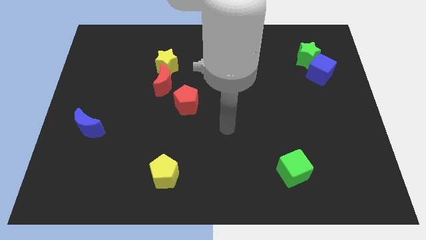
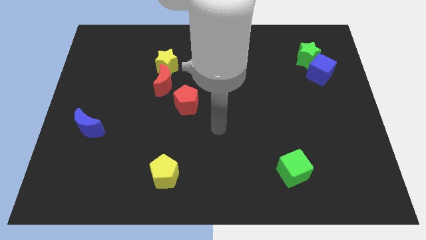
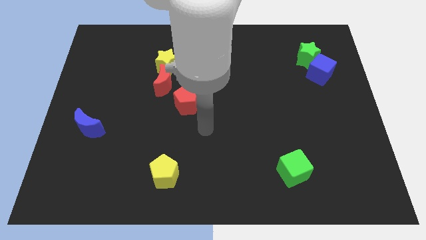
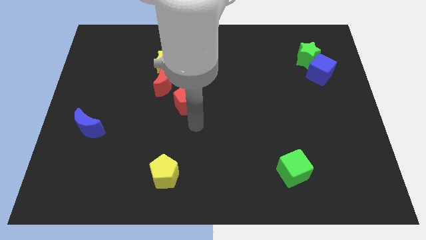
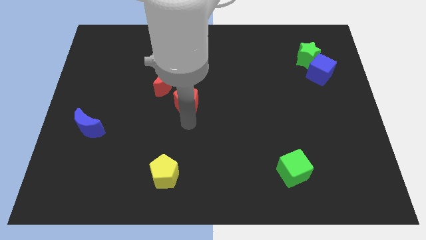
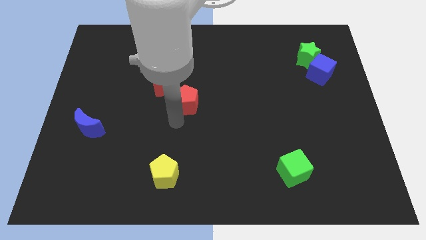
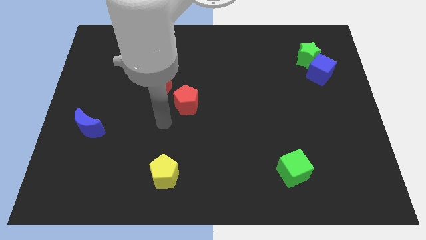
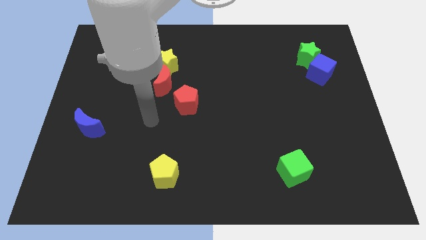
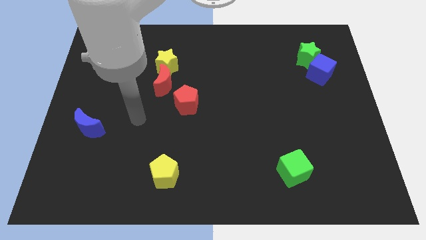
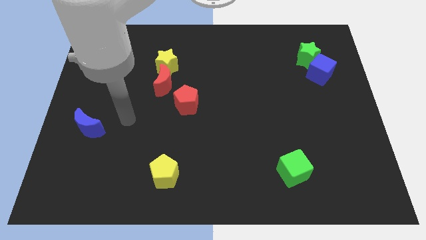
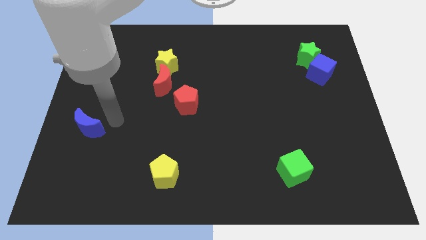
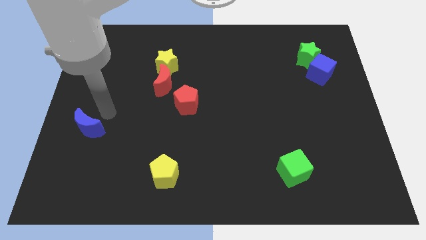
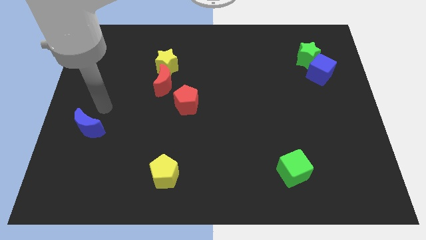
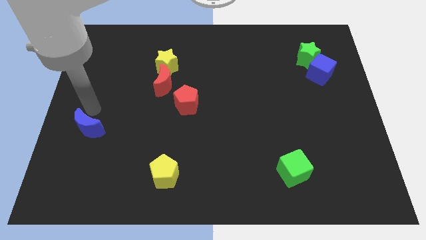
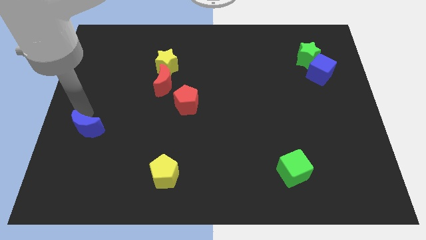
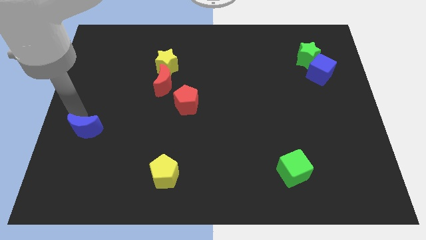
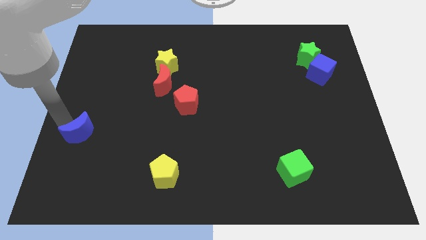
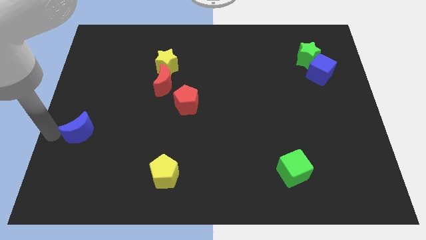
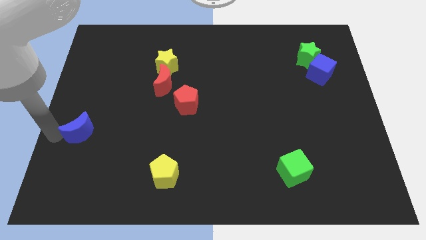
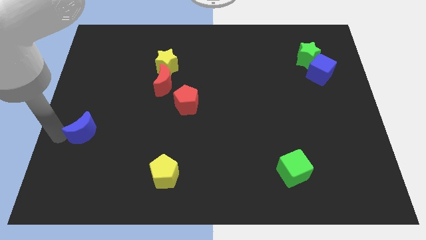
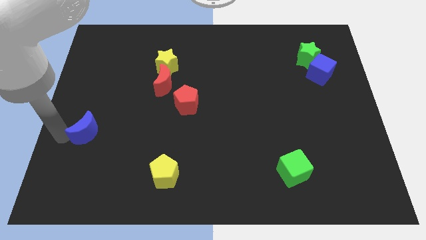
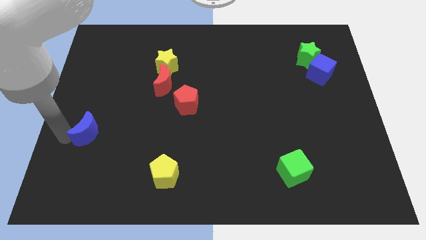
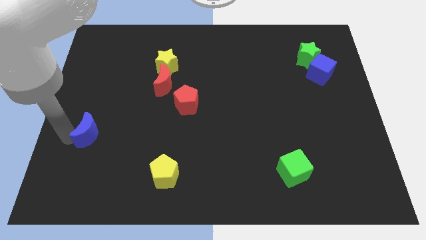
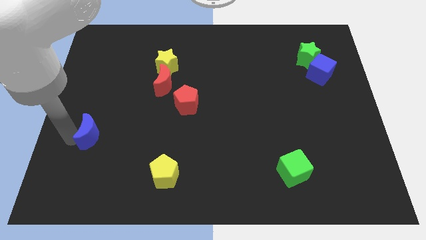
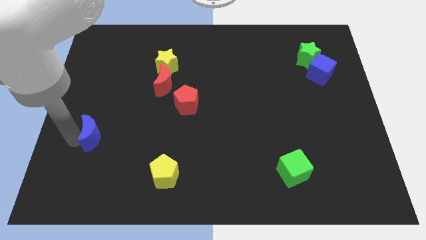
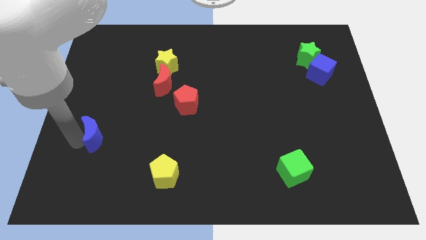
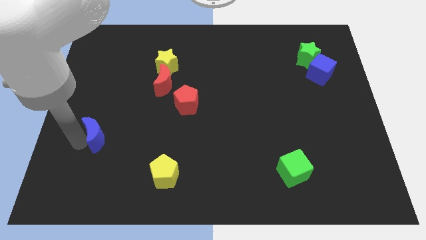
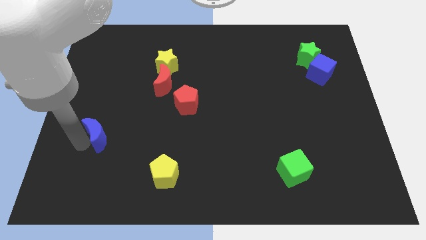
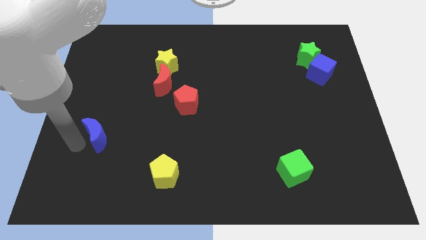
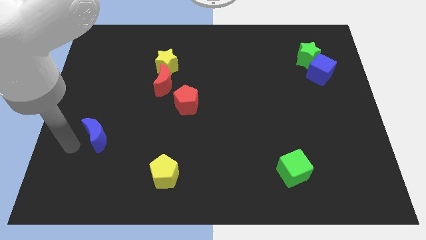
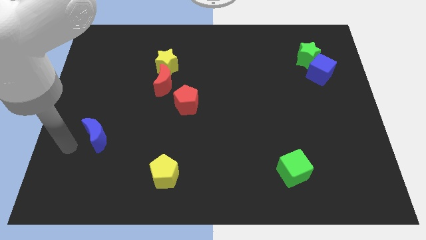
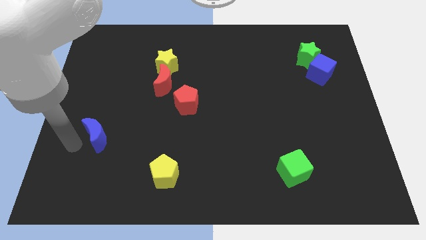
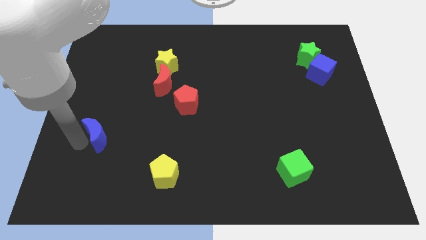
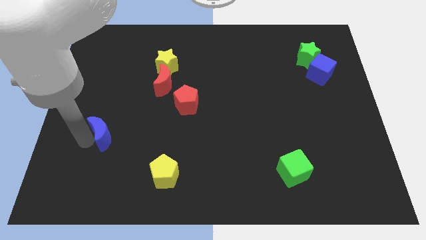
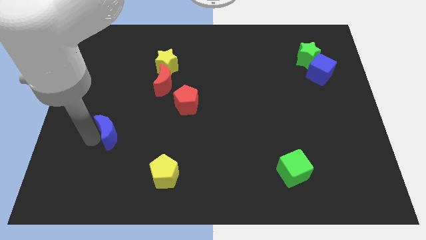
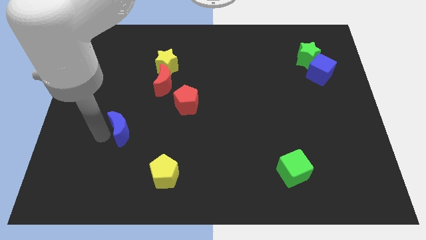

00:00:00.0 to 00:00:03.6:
slightly slide the blue moon right

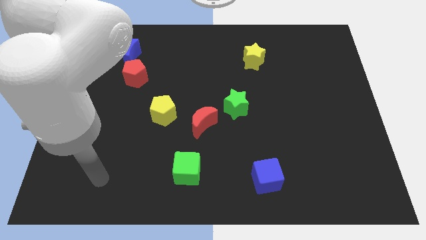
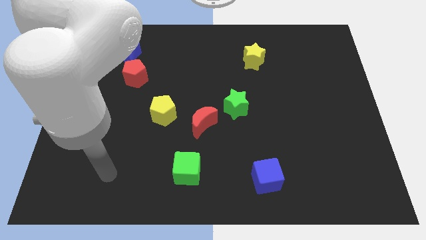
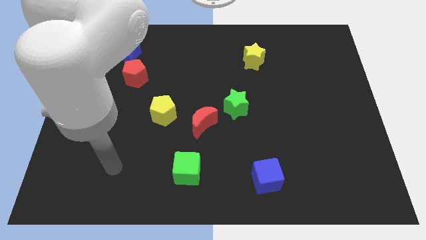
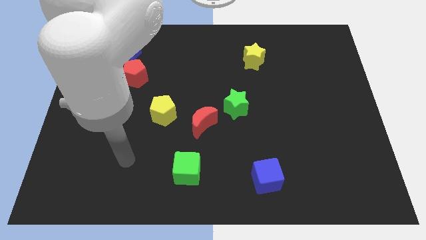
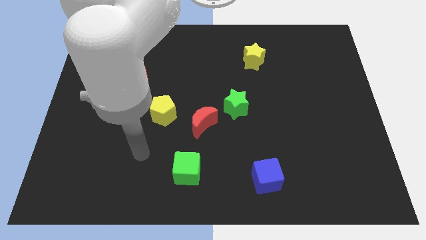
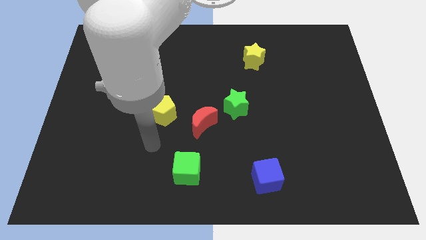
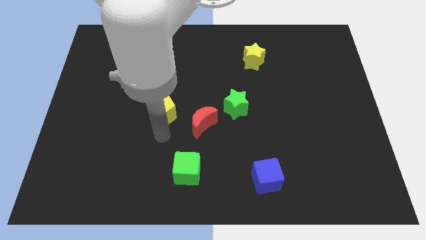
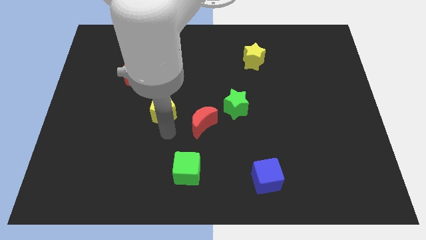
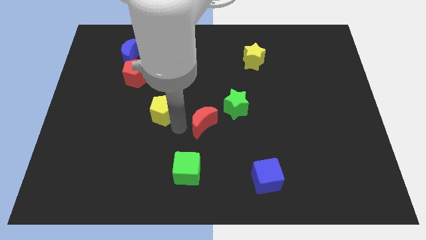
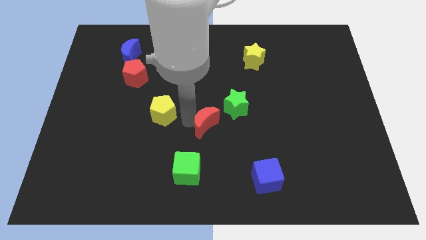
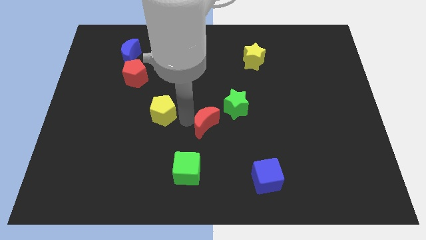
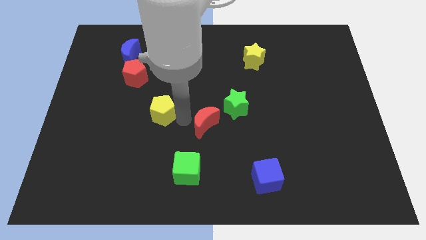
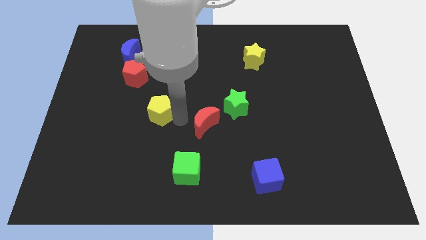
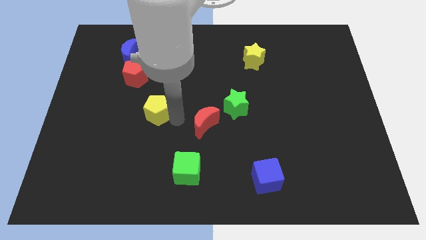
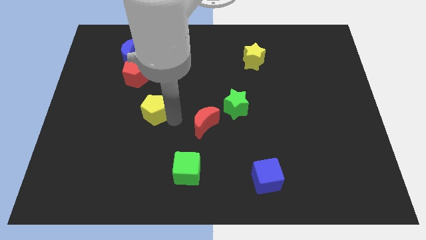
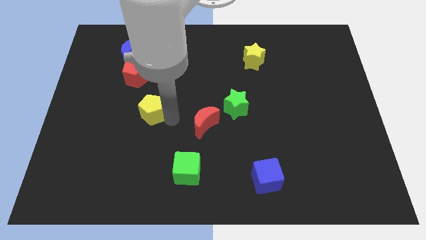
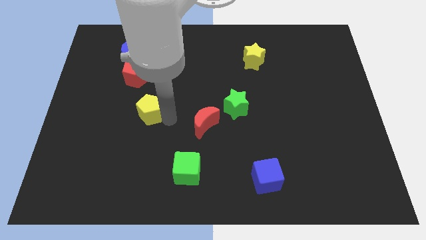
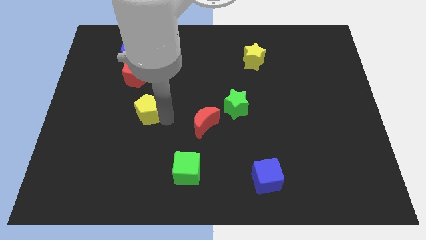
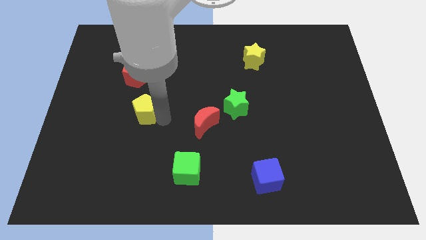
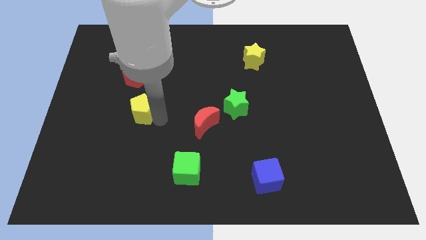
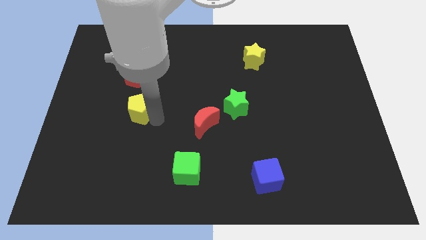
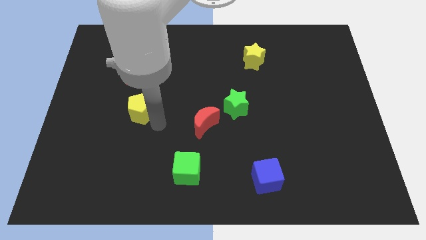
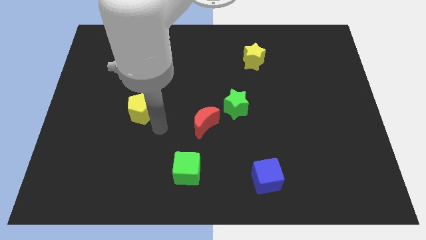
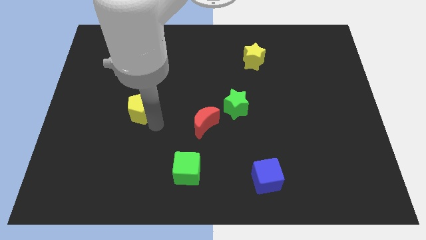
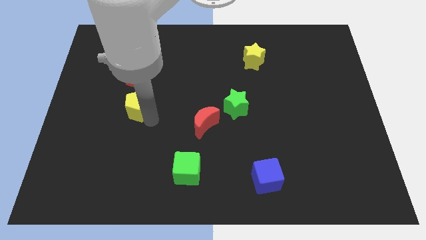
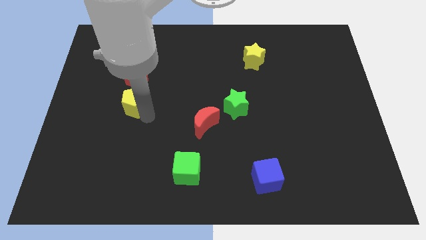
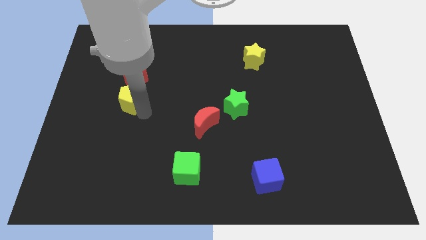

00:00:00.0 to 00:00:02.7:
slightly move the yellow pentagon upwards and to the left

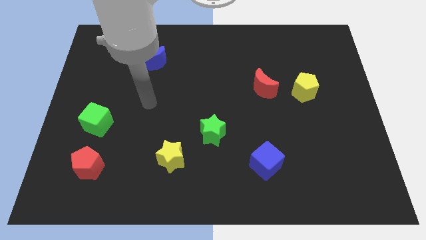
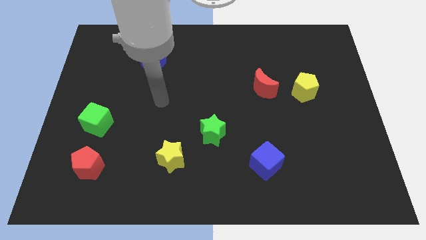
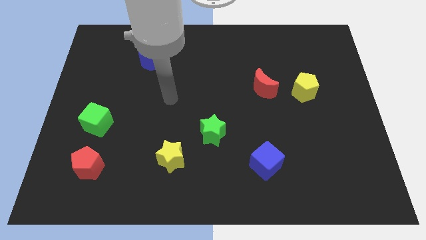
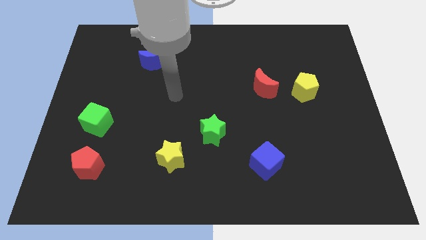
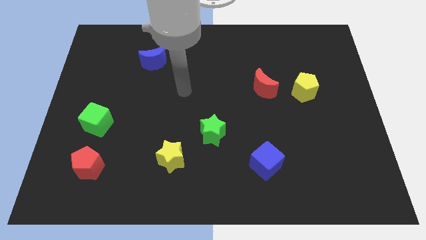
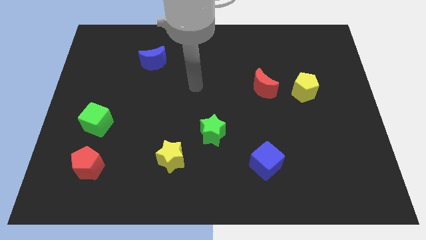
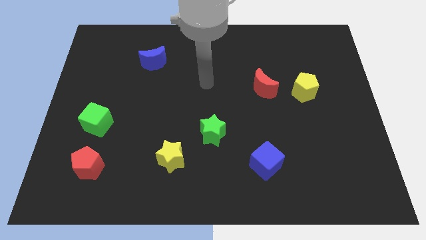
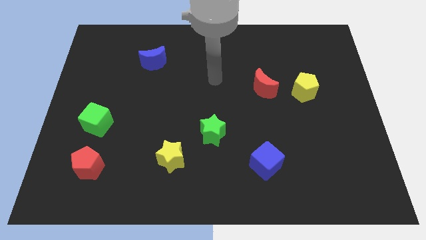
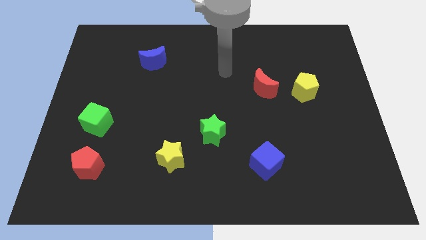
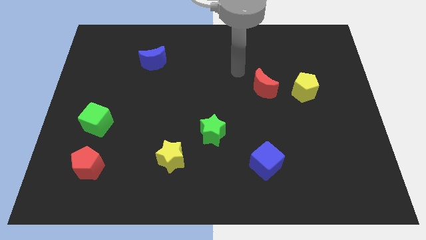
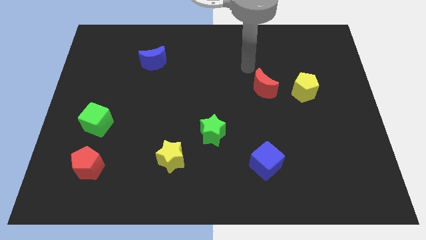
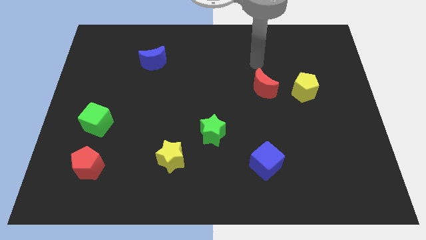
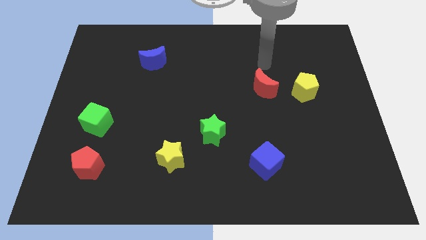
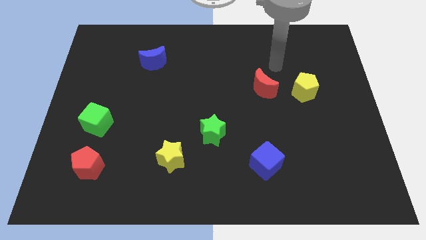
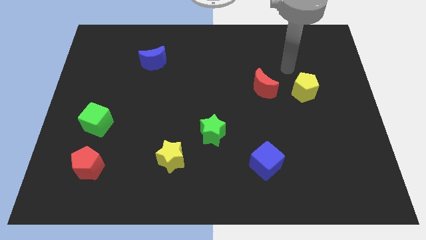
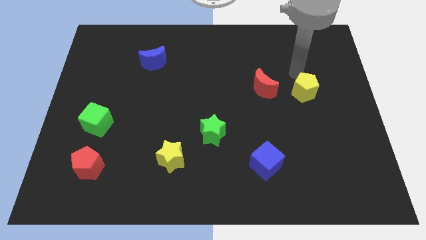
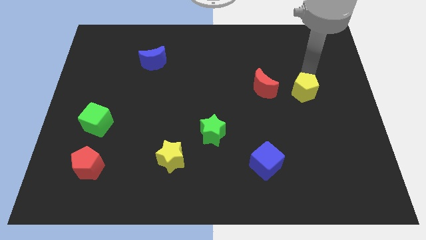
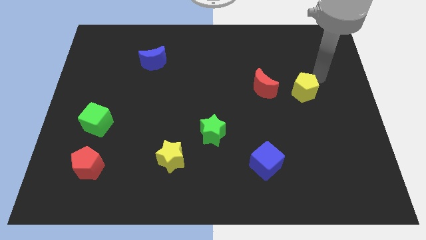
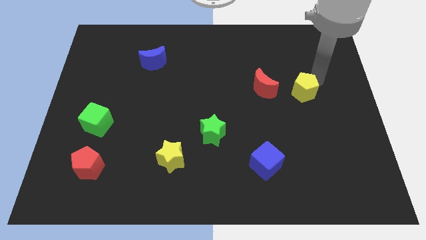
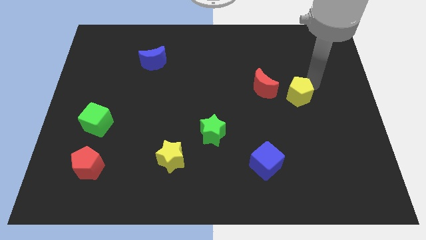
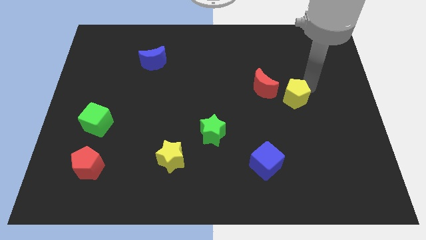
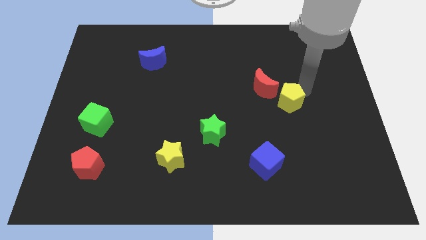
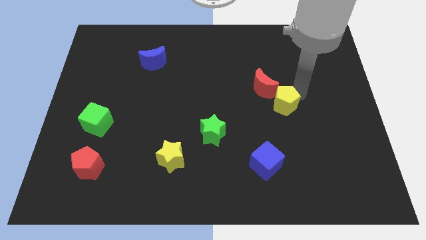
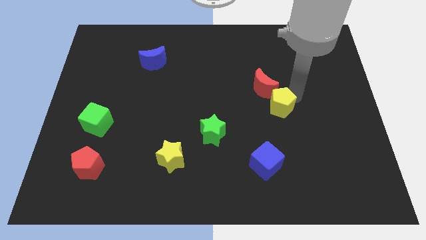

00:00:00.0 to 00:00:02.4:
slightly move the yellow pentagon down and left diagonally
